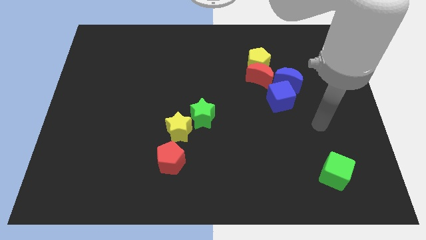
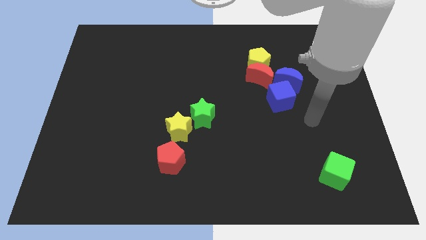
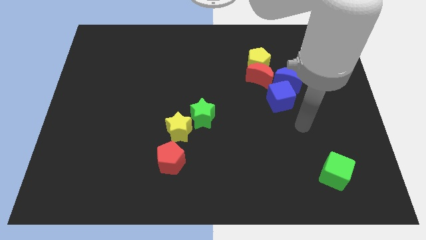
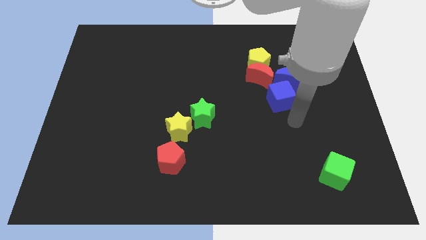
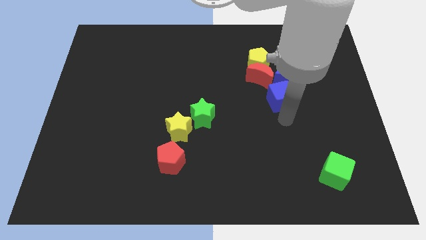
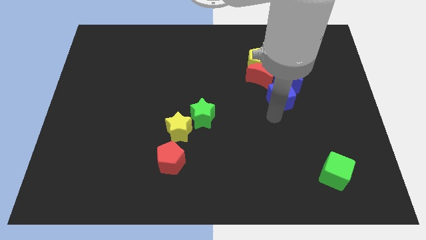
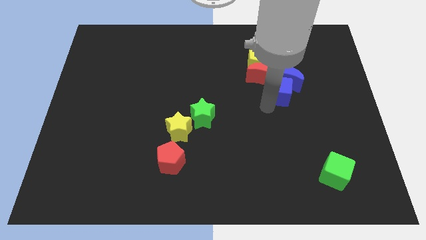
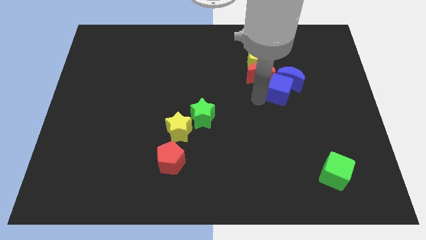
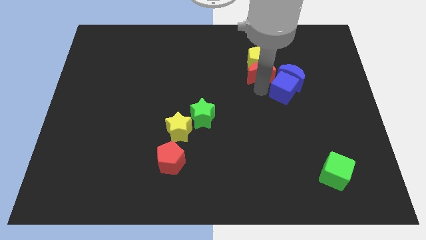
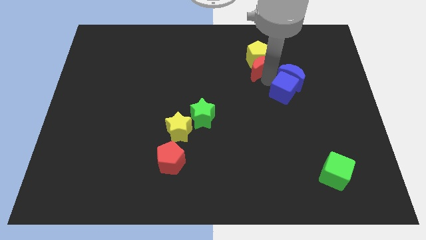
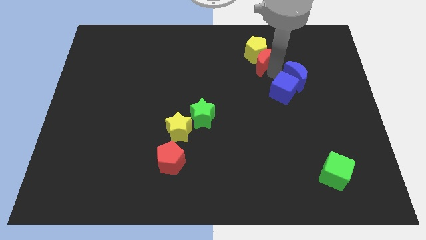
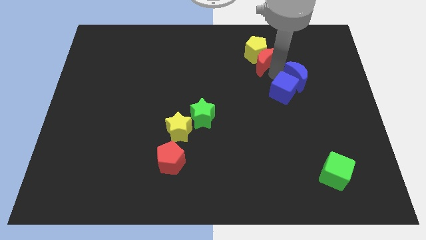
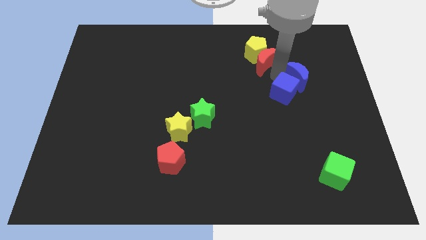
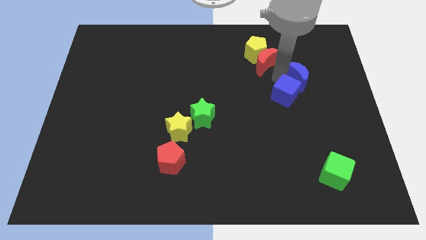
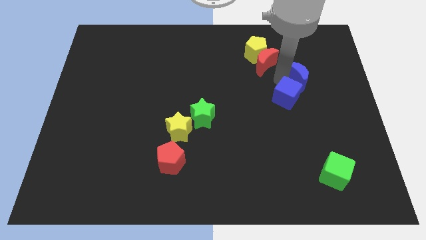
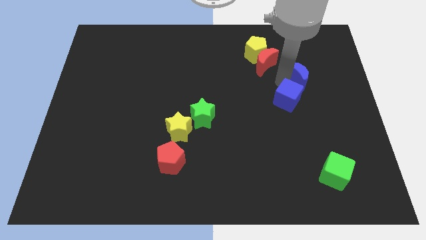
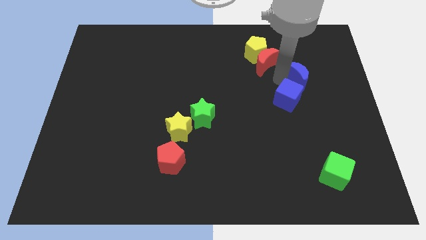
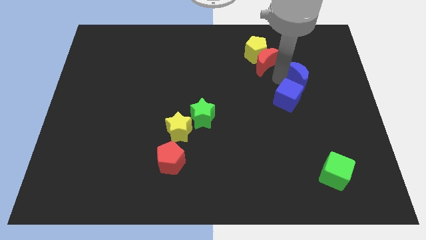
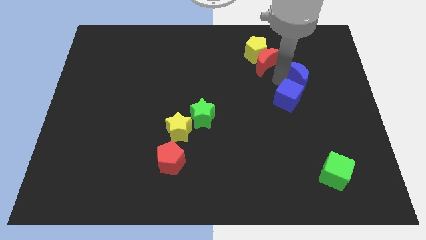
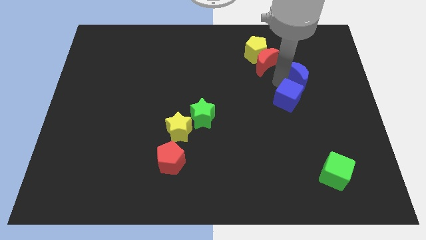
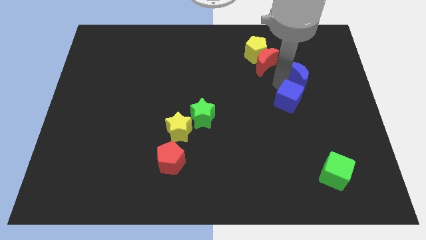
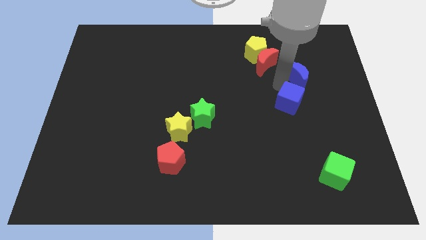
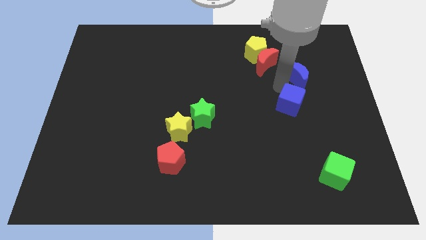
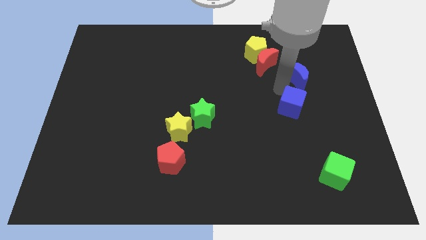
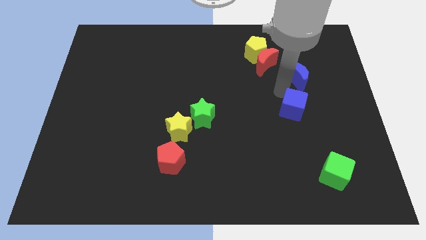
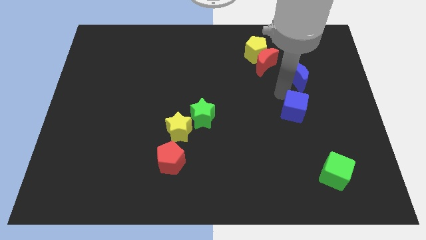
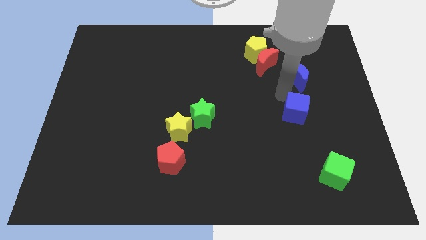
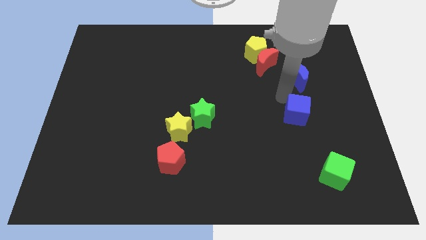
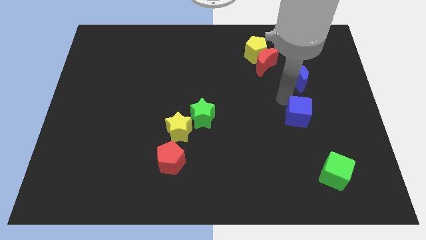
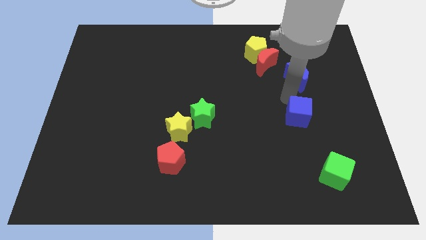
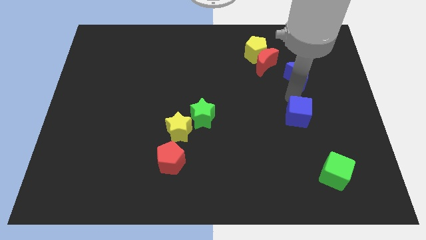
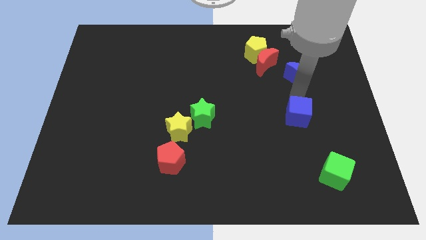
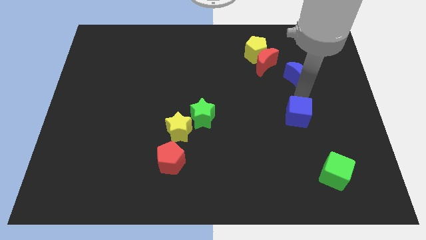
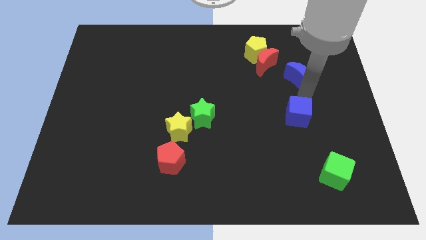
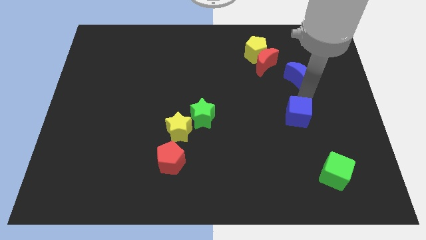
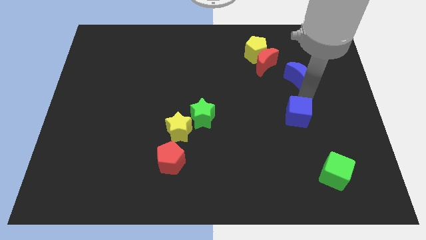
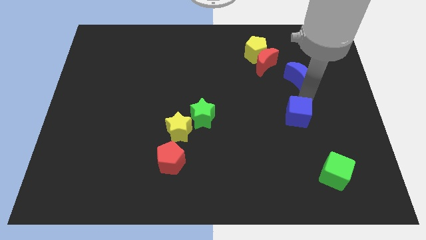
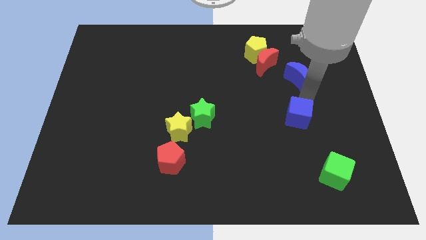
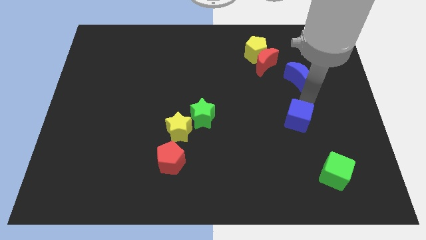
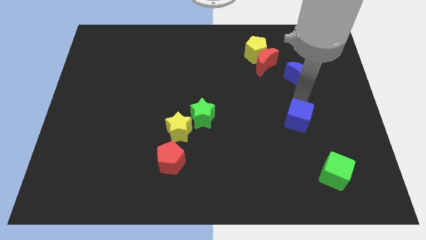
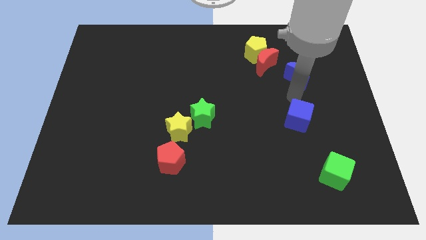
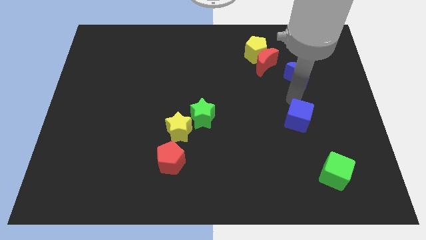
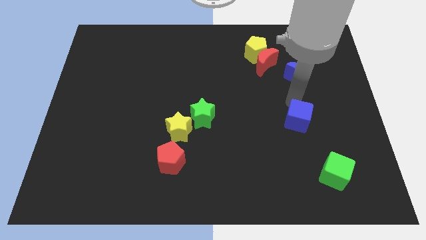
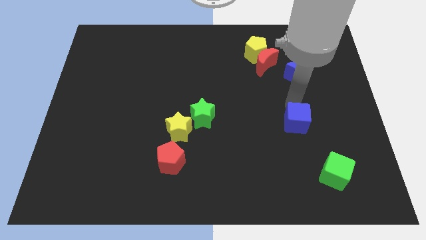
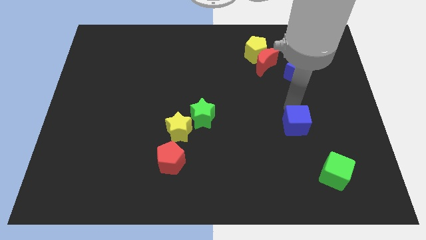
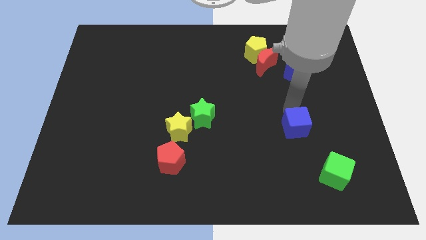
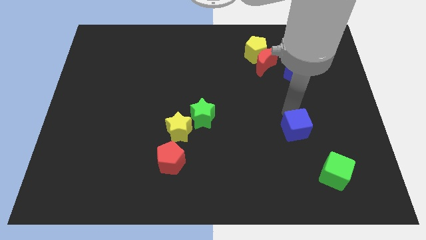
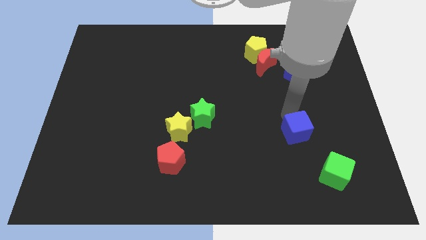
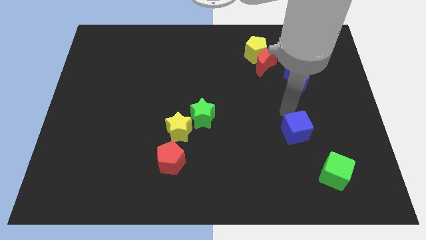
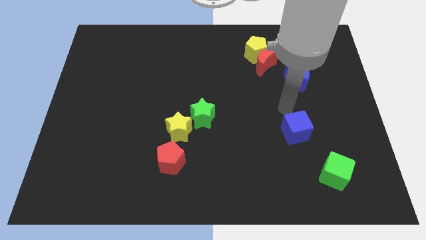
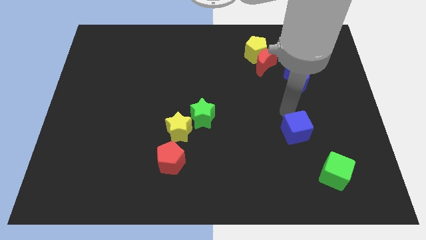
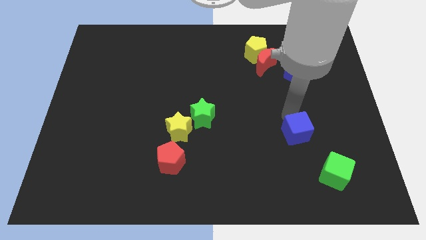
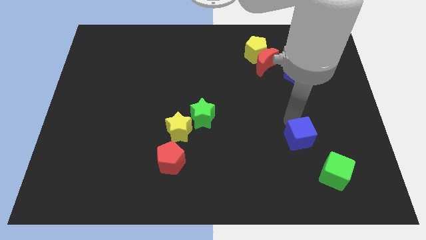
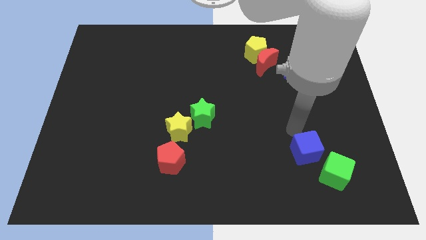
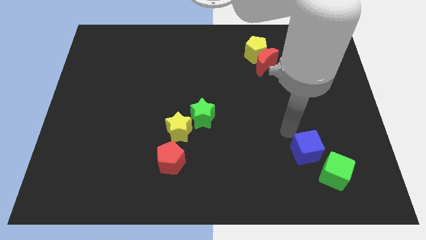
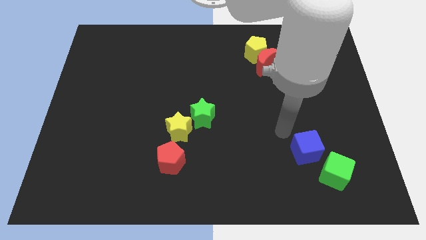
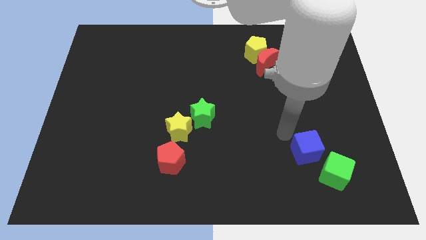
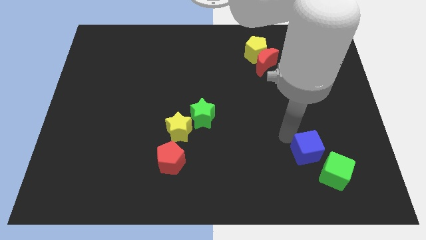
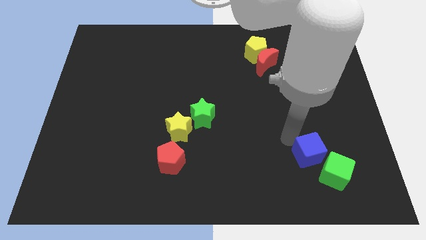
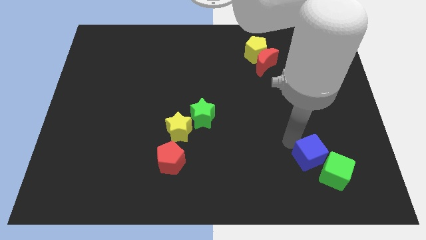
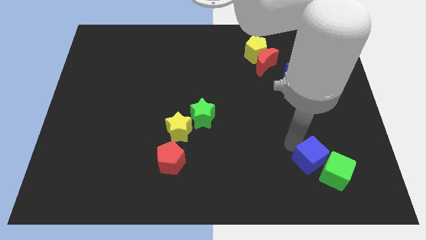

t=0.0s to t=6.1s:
slide the blue cube next to the green cube

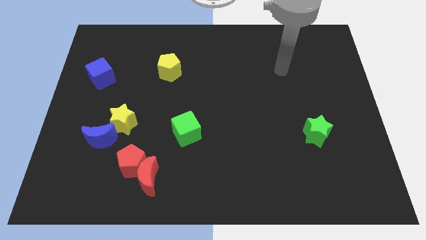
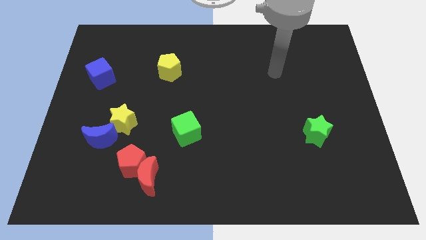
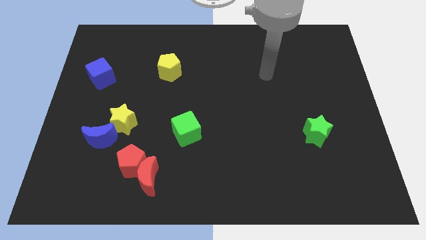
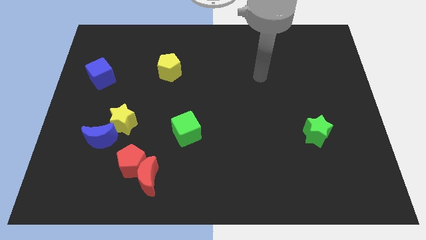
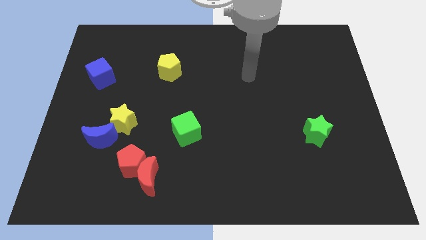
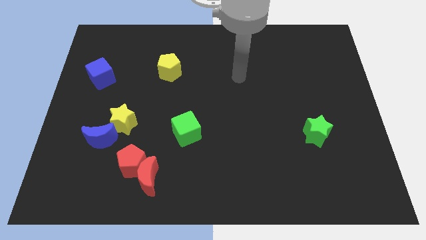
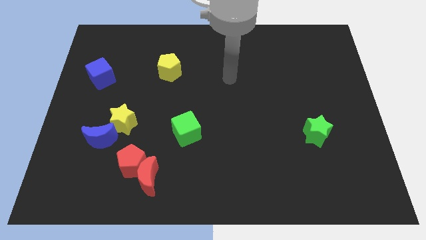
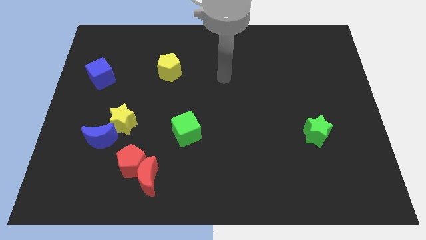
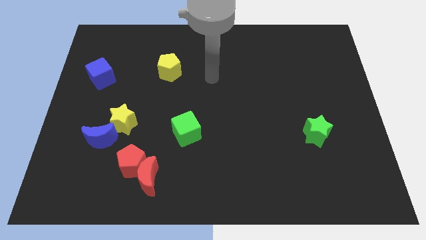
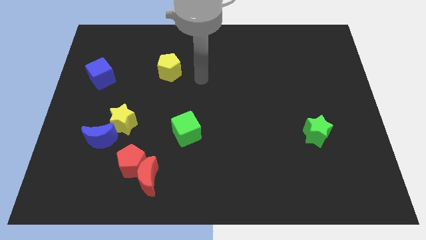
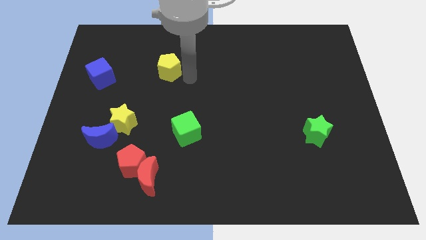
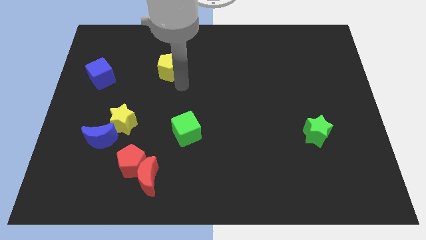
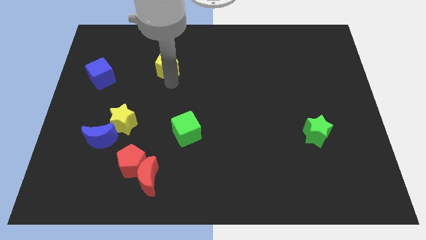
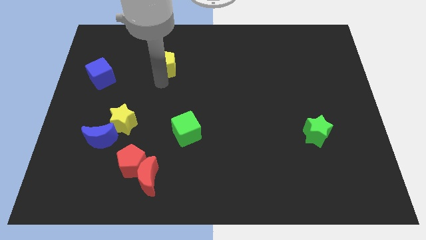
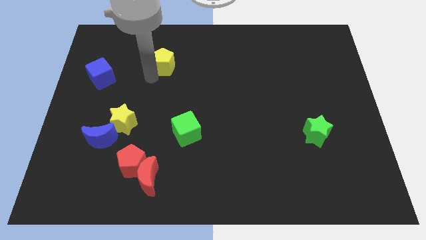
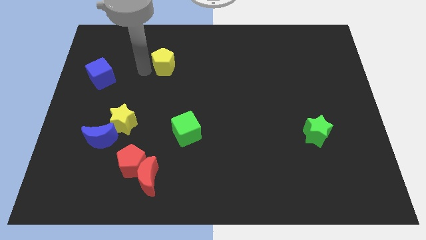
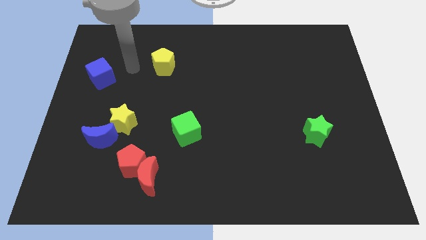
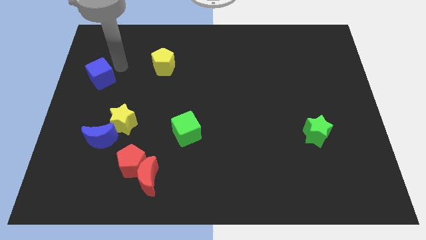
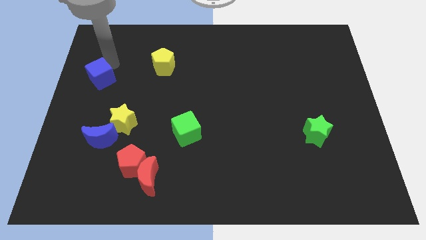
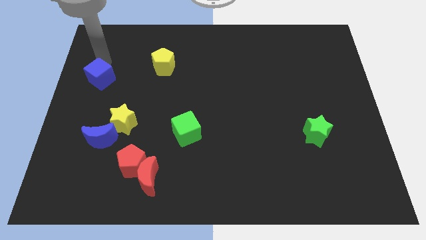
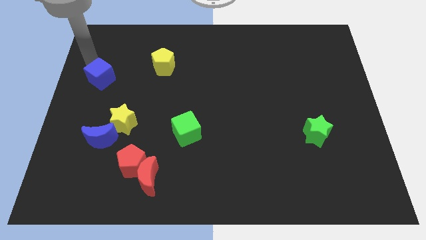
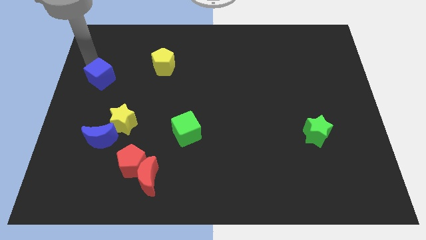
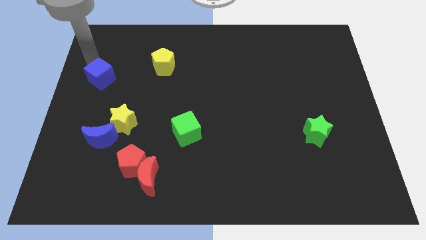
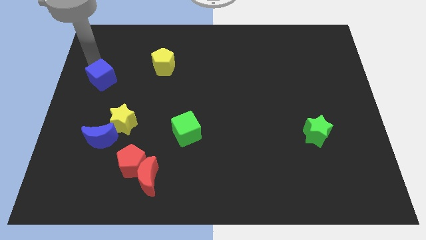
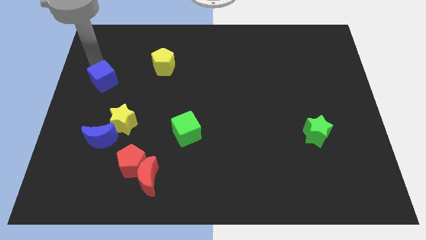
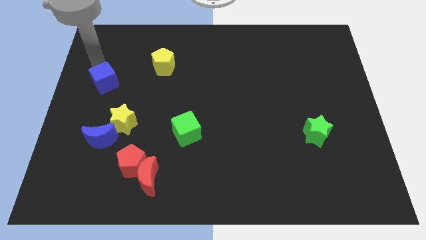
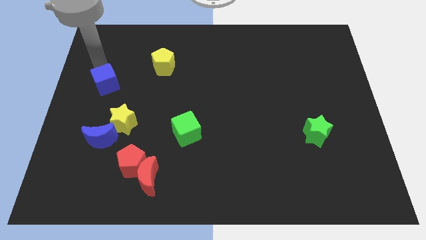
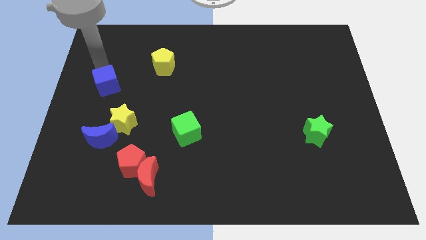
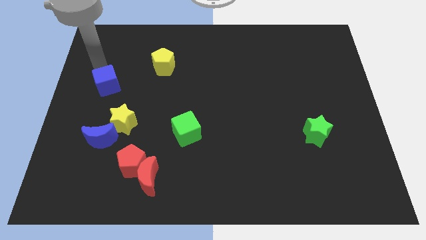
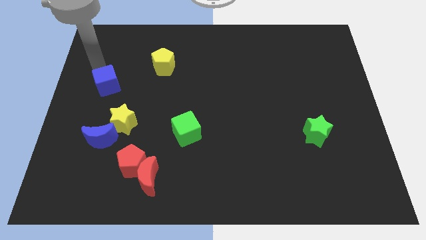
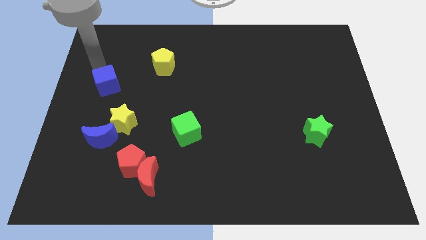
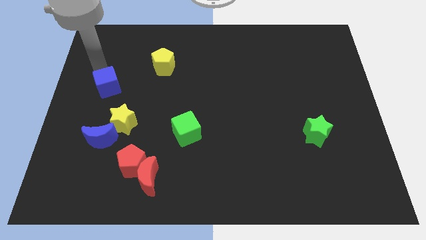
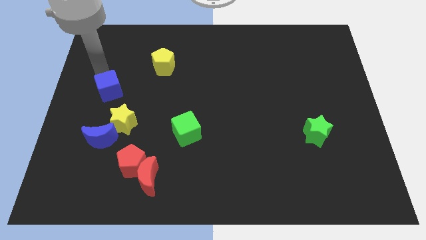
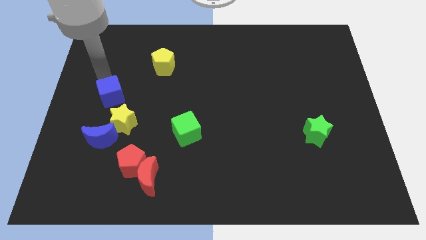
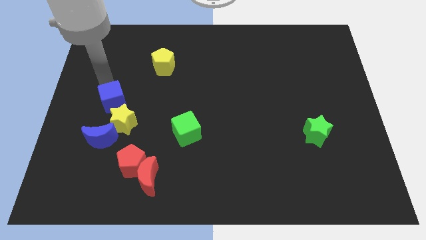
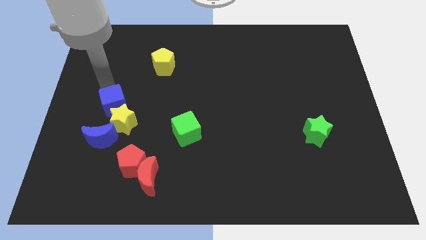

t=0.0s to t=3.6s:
slide the blue cube close to the yellow star
